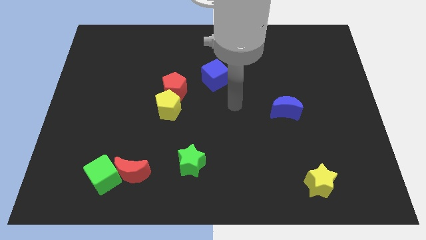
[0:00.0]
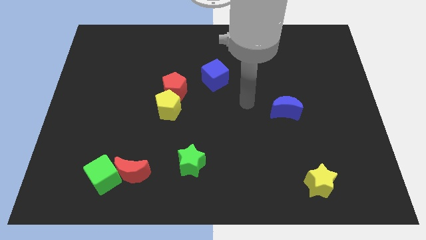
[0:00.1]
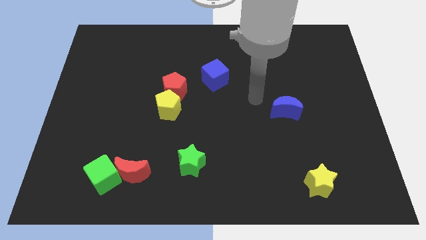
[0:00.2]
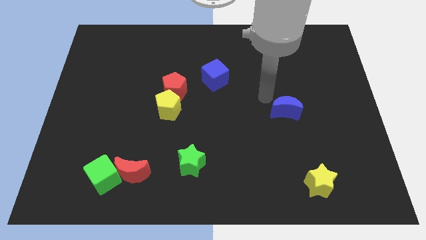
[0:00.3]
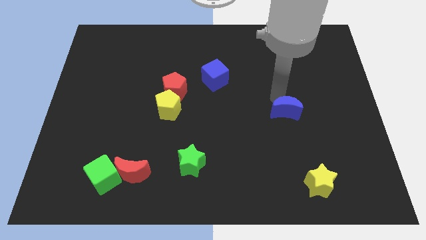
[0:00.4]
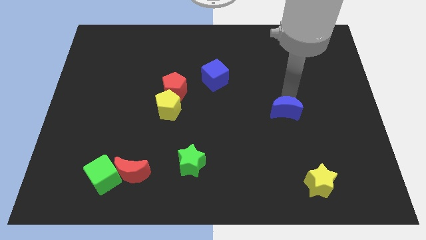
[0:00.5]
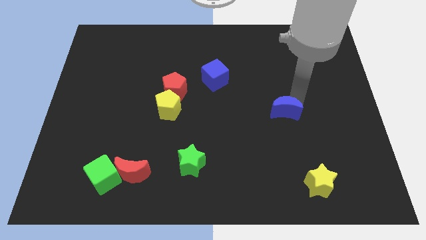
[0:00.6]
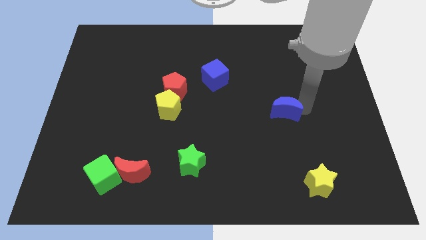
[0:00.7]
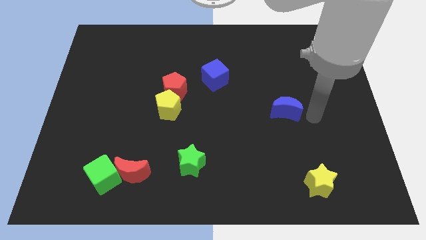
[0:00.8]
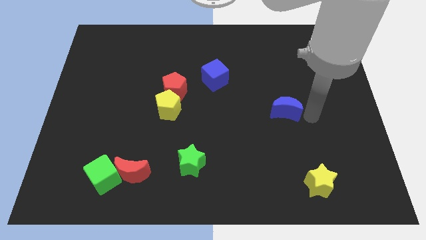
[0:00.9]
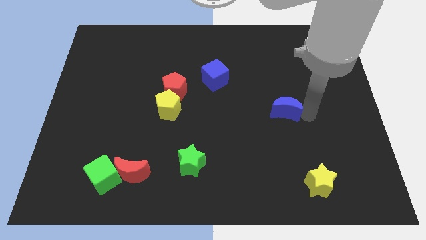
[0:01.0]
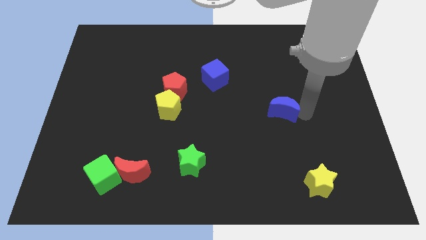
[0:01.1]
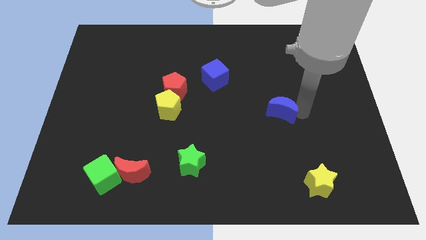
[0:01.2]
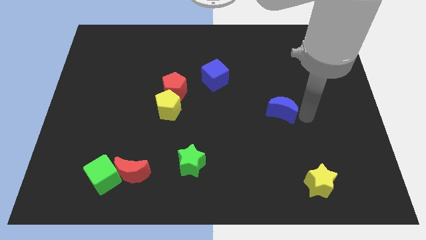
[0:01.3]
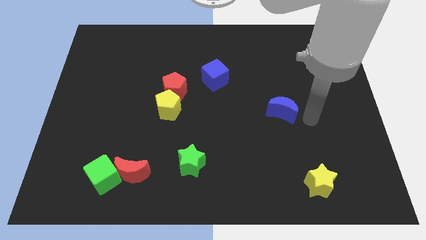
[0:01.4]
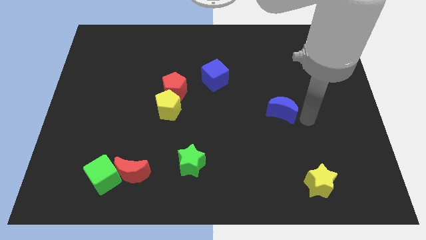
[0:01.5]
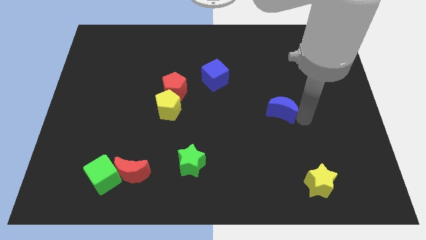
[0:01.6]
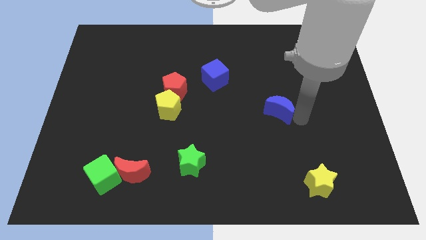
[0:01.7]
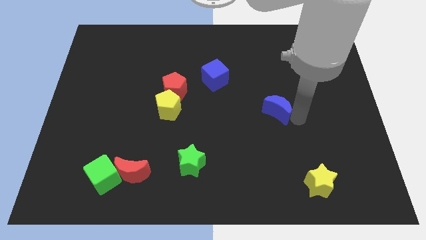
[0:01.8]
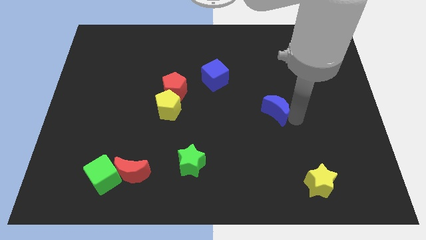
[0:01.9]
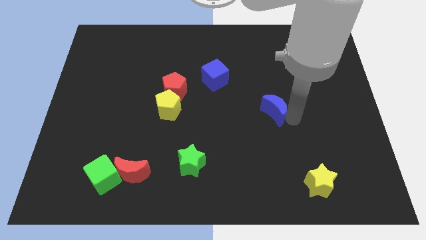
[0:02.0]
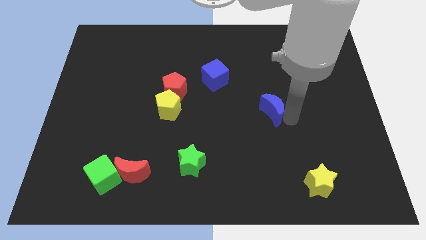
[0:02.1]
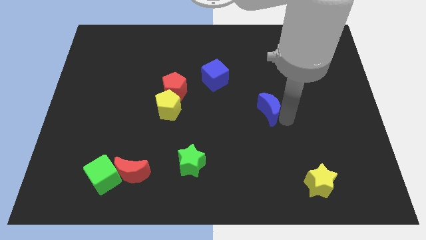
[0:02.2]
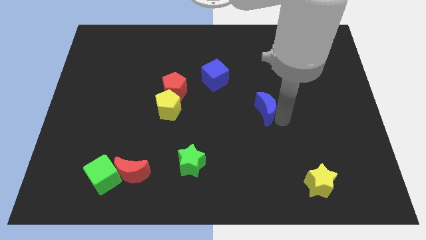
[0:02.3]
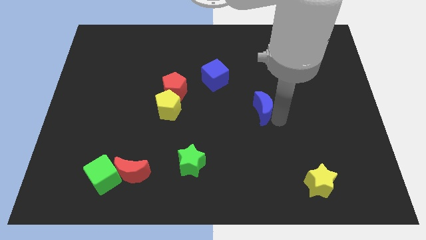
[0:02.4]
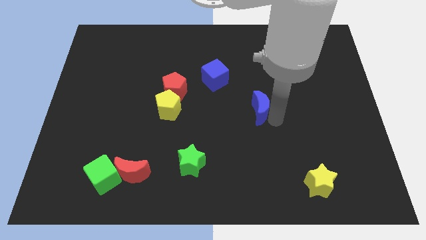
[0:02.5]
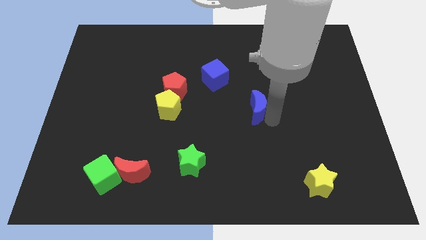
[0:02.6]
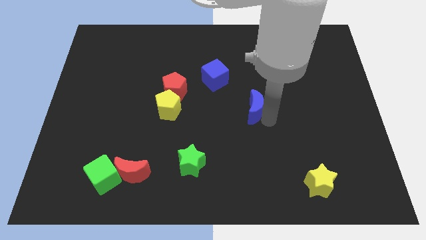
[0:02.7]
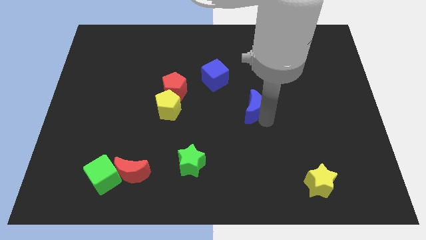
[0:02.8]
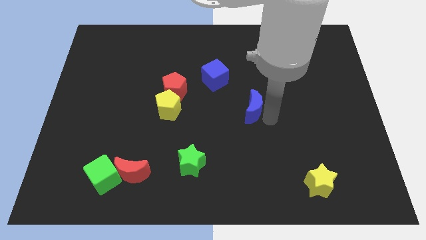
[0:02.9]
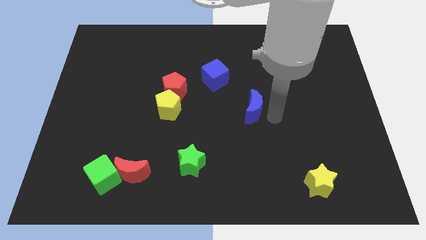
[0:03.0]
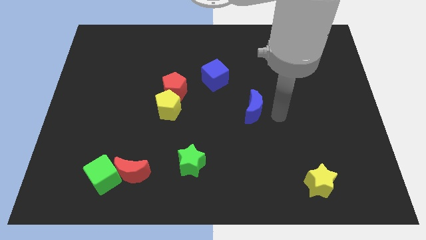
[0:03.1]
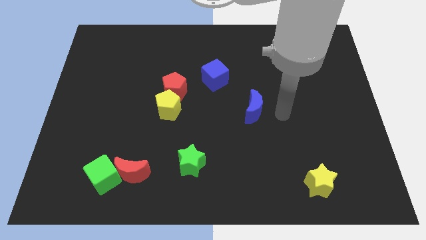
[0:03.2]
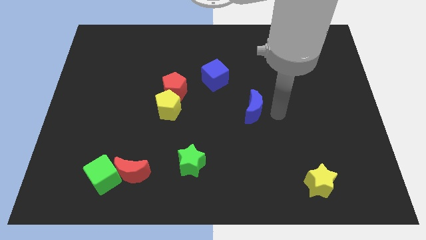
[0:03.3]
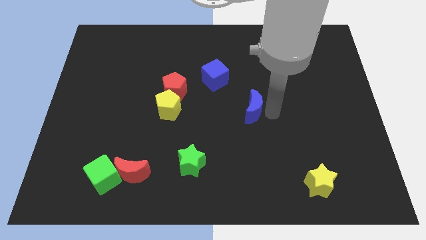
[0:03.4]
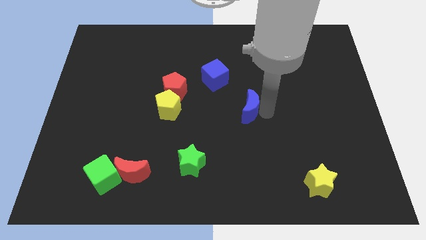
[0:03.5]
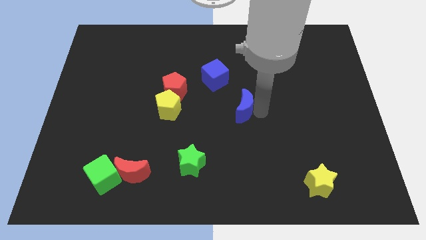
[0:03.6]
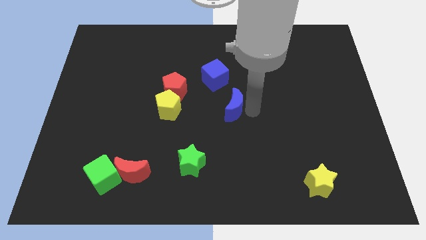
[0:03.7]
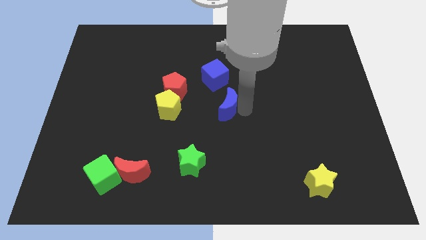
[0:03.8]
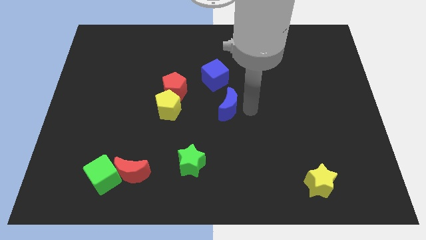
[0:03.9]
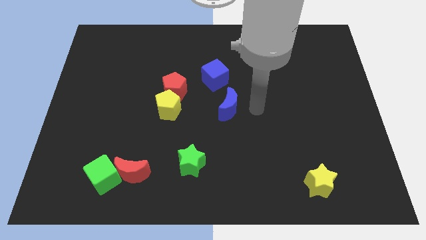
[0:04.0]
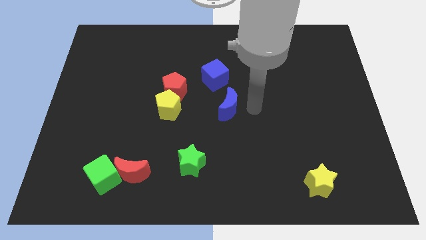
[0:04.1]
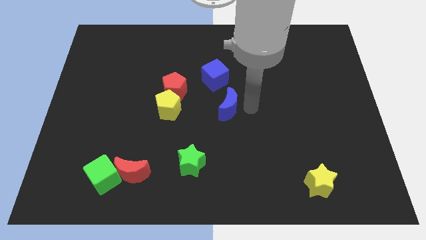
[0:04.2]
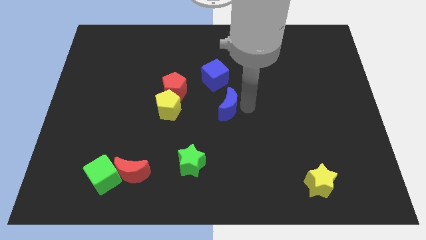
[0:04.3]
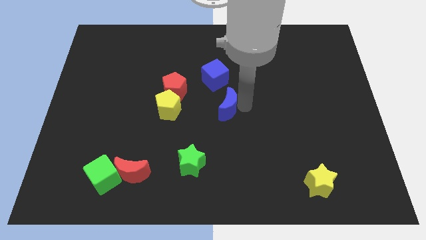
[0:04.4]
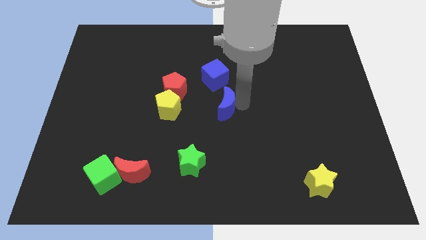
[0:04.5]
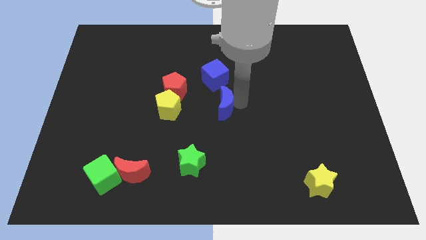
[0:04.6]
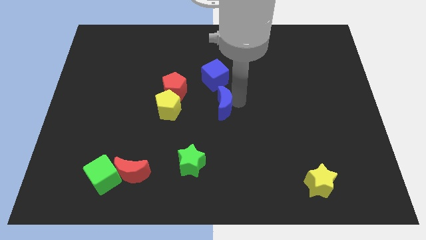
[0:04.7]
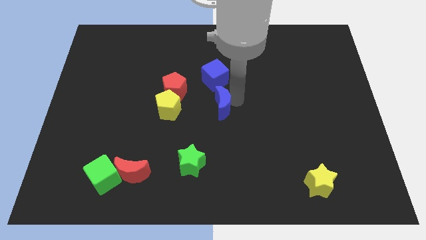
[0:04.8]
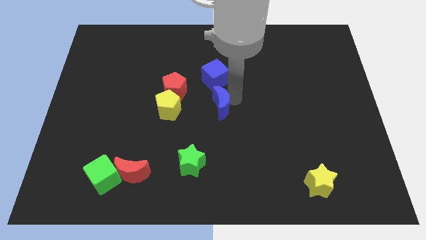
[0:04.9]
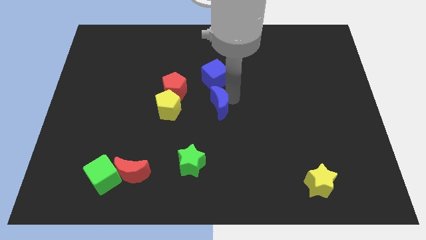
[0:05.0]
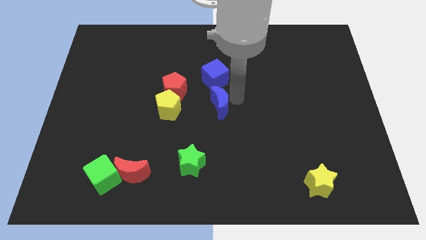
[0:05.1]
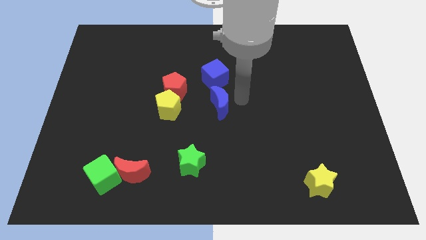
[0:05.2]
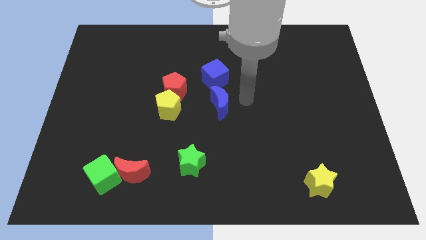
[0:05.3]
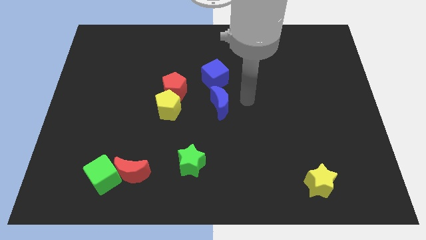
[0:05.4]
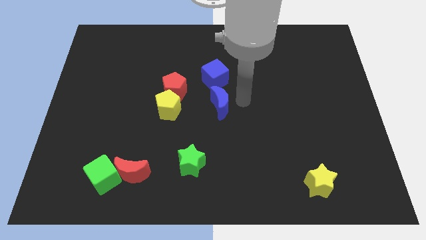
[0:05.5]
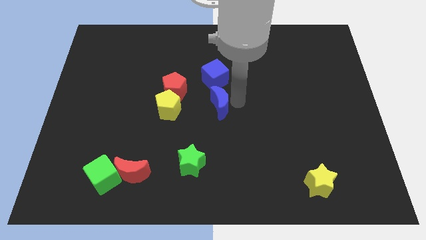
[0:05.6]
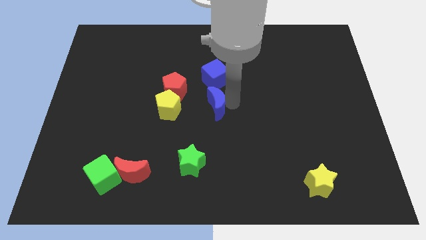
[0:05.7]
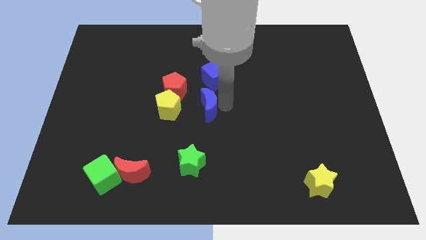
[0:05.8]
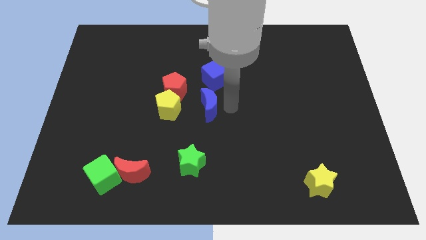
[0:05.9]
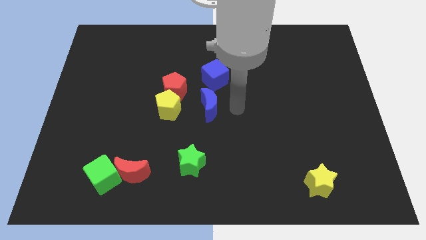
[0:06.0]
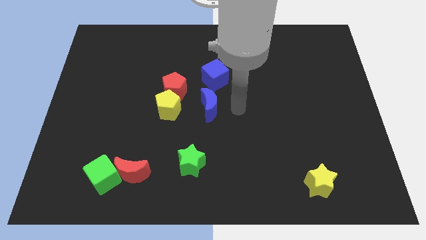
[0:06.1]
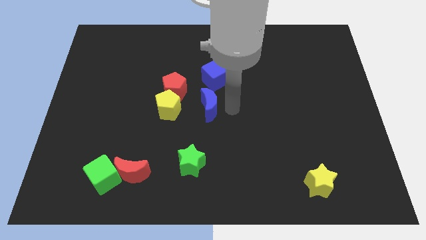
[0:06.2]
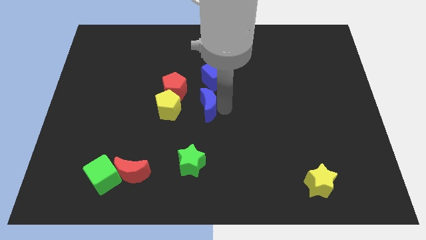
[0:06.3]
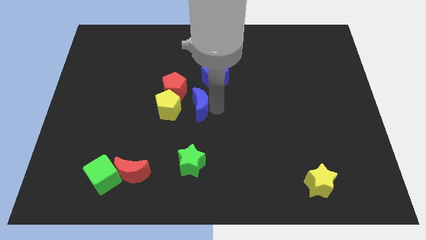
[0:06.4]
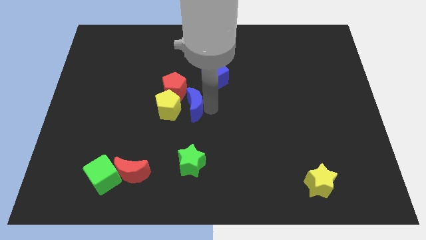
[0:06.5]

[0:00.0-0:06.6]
push the blue moon towards the yellow pentagon

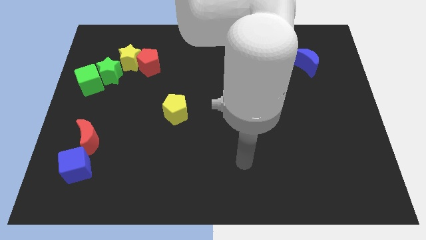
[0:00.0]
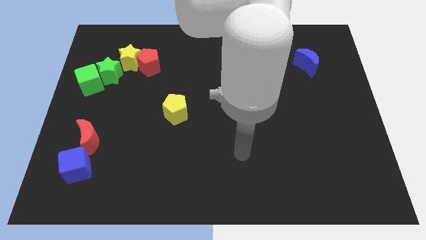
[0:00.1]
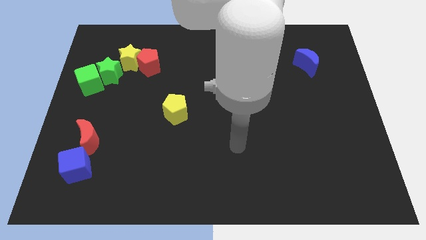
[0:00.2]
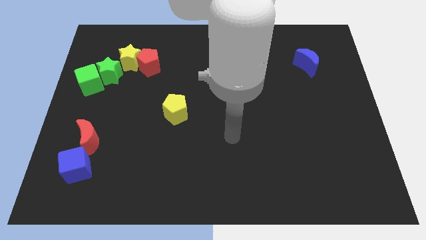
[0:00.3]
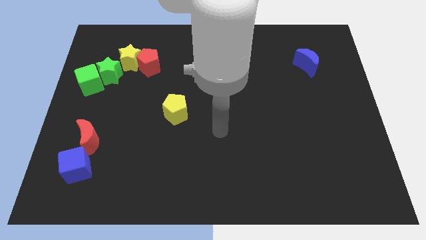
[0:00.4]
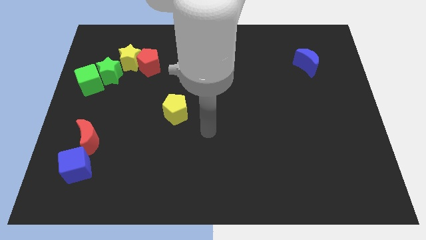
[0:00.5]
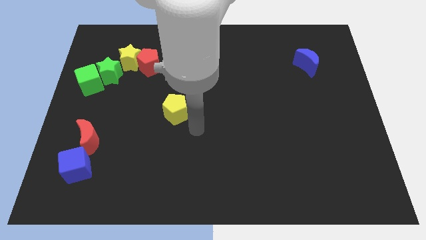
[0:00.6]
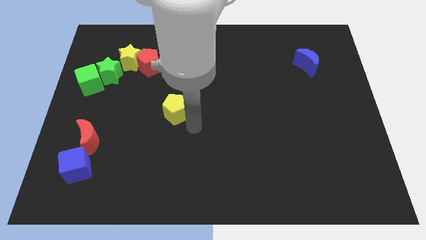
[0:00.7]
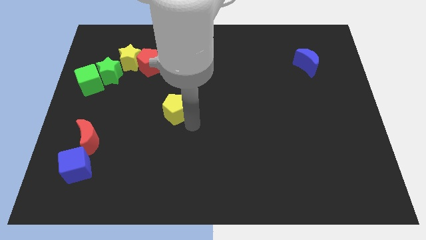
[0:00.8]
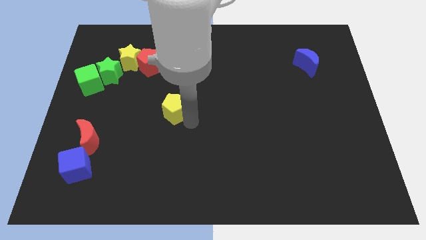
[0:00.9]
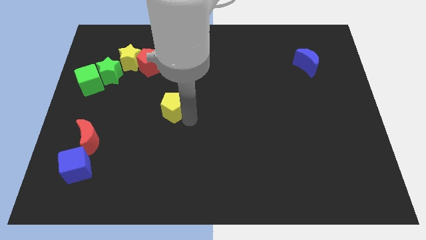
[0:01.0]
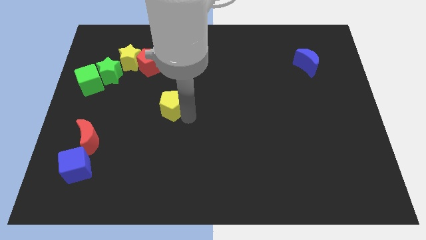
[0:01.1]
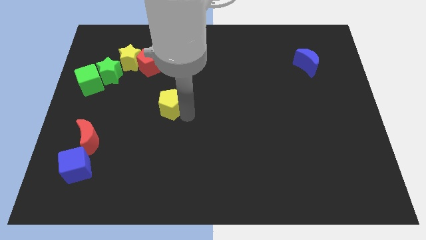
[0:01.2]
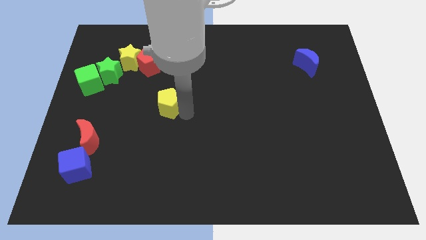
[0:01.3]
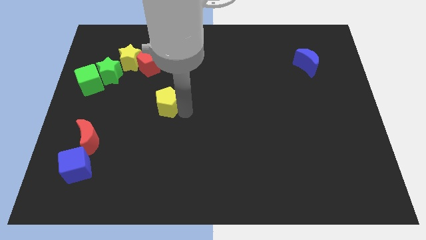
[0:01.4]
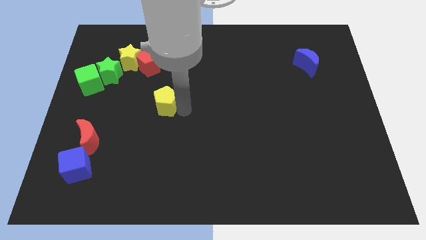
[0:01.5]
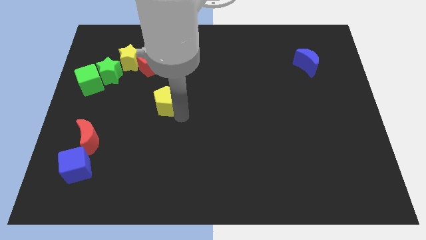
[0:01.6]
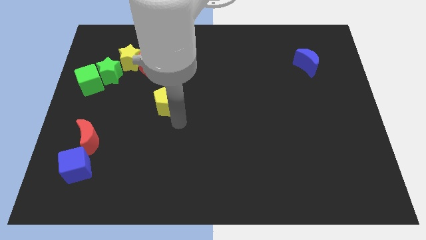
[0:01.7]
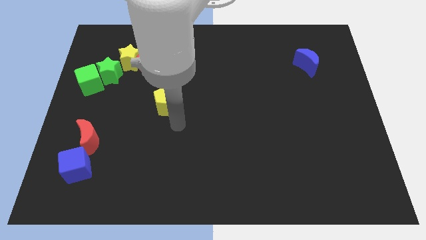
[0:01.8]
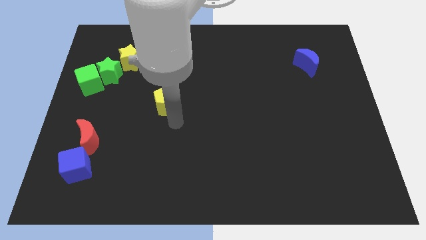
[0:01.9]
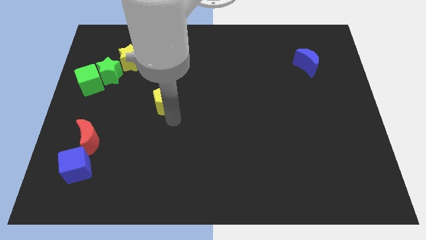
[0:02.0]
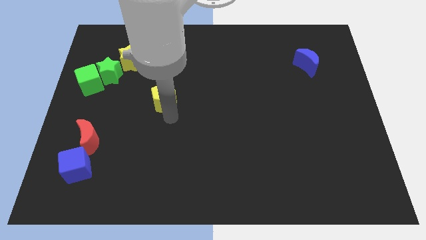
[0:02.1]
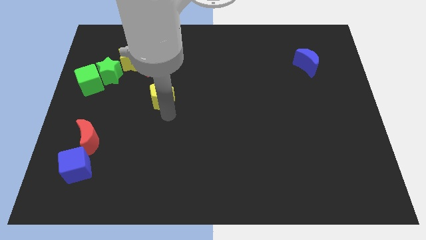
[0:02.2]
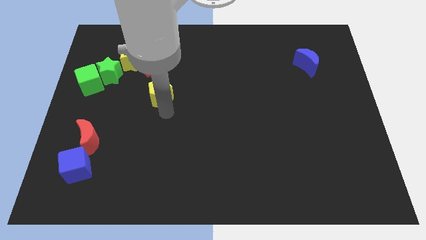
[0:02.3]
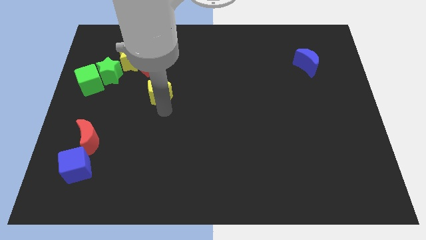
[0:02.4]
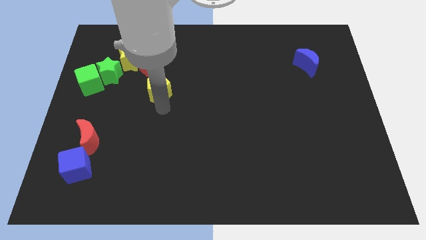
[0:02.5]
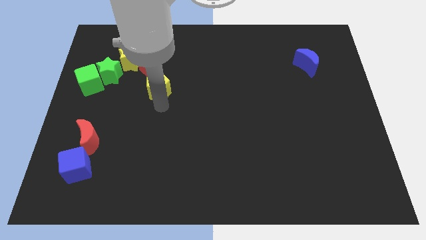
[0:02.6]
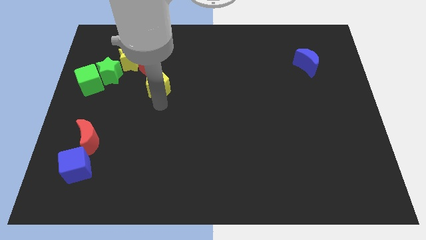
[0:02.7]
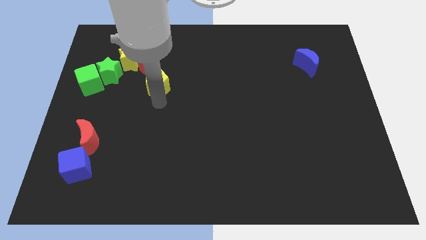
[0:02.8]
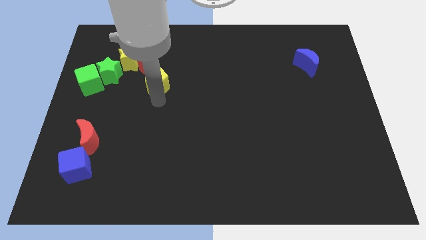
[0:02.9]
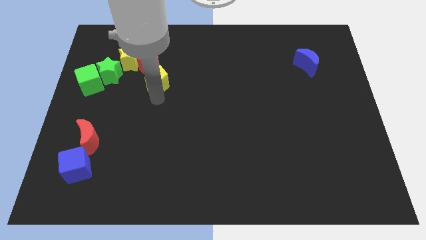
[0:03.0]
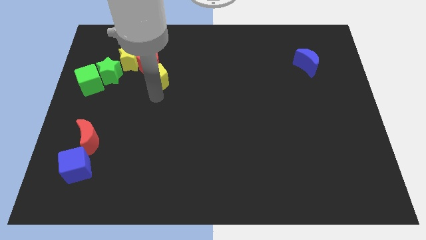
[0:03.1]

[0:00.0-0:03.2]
move the yellow pentagon next to the red pentagon
